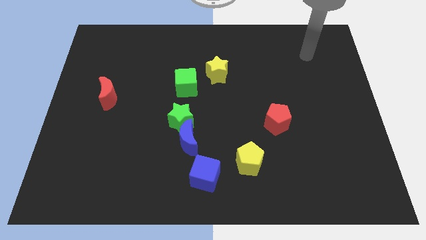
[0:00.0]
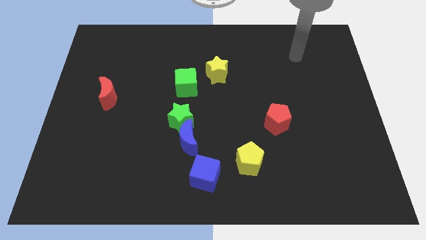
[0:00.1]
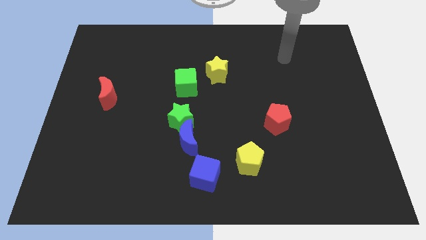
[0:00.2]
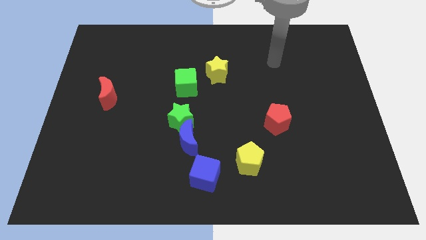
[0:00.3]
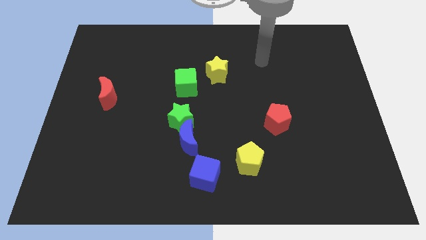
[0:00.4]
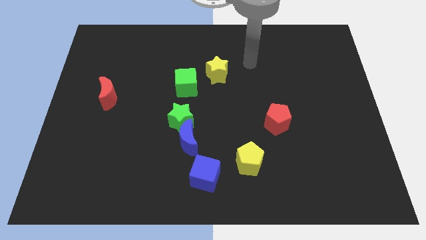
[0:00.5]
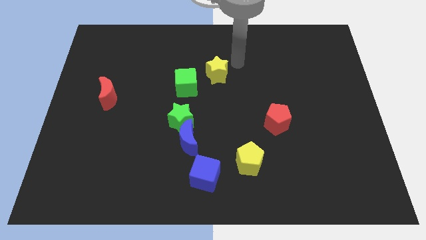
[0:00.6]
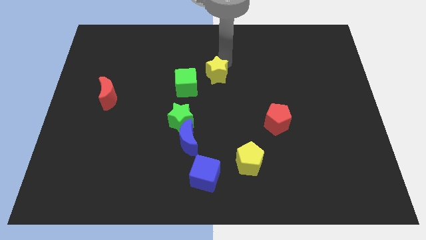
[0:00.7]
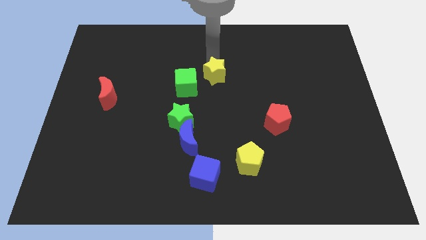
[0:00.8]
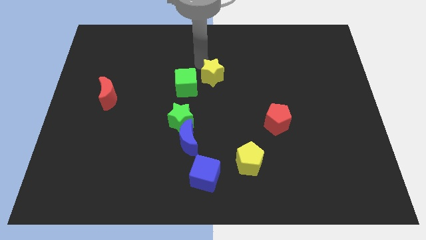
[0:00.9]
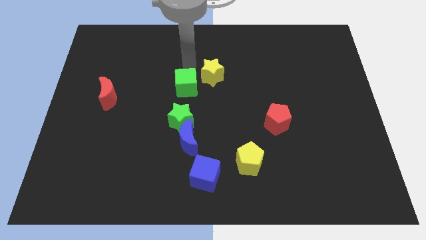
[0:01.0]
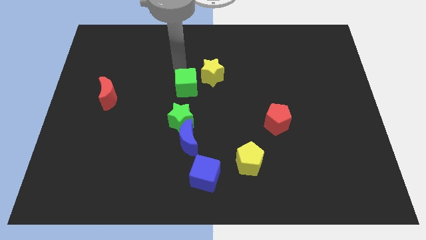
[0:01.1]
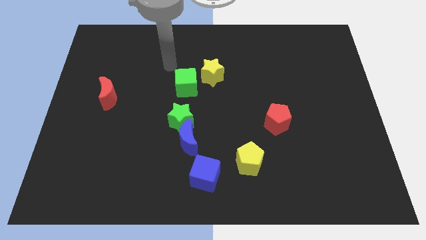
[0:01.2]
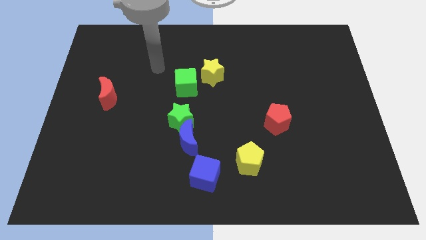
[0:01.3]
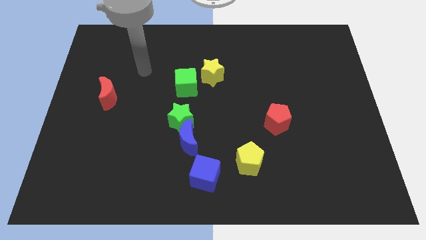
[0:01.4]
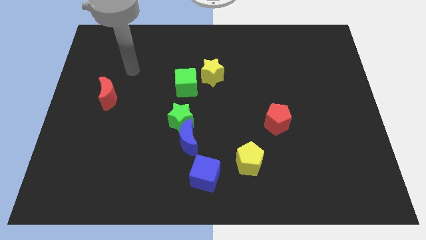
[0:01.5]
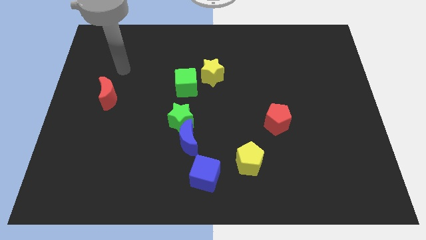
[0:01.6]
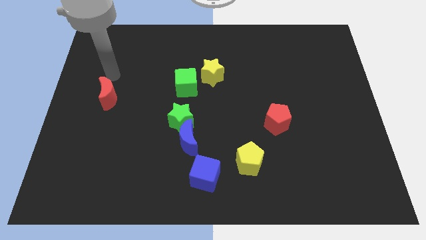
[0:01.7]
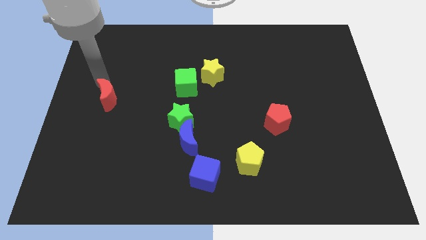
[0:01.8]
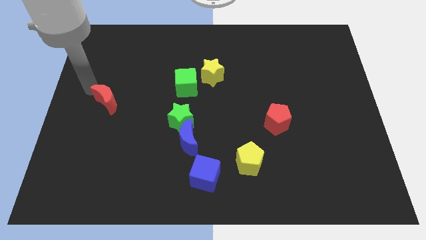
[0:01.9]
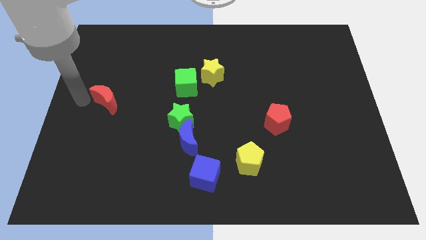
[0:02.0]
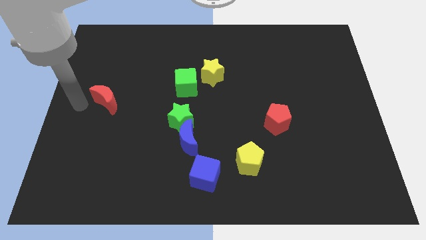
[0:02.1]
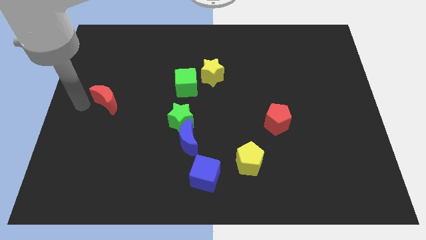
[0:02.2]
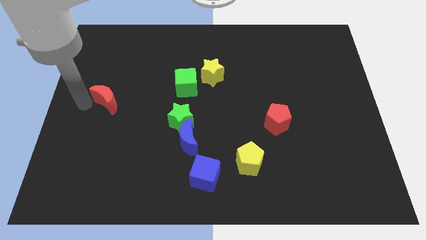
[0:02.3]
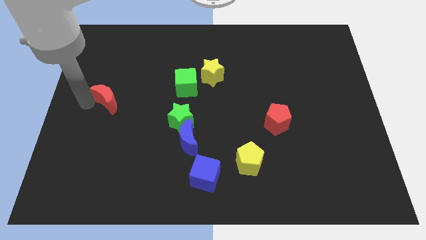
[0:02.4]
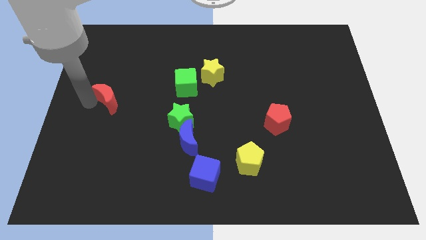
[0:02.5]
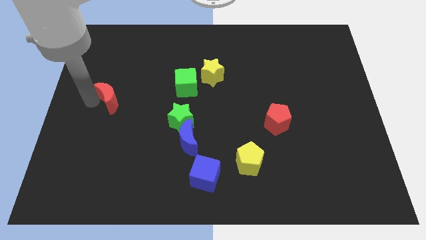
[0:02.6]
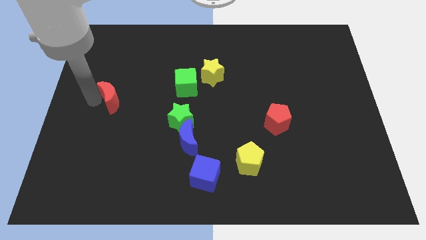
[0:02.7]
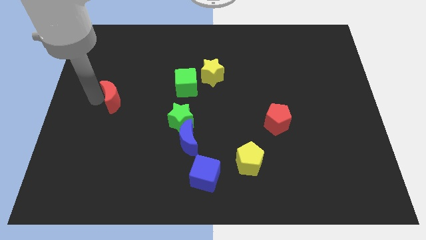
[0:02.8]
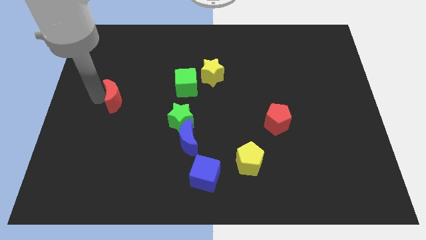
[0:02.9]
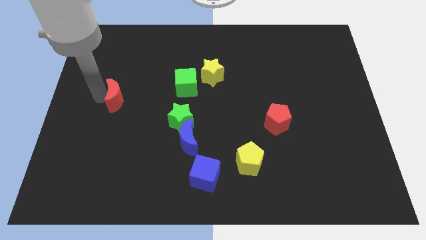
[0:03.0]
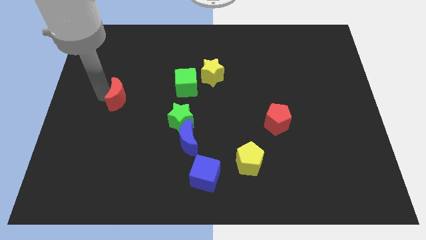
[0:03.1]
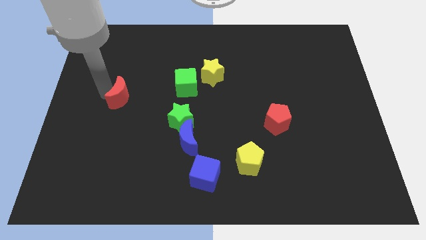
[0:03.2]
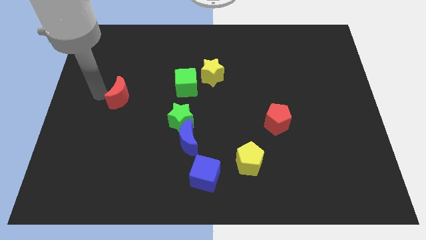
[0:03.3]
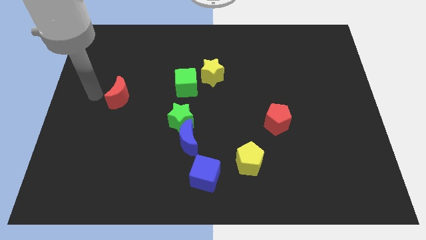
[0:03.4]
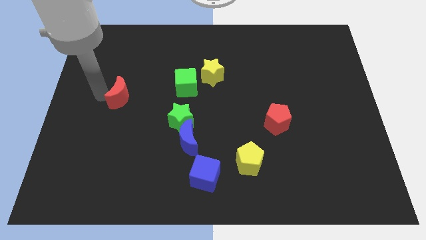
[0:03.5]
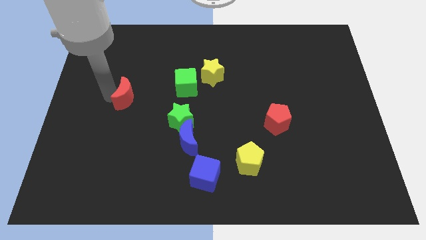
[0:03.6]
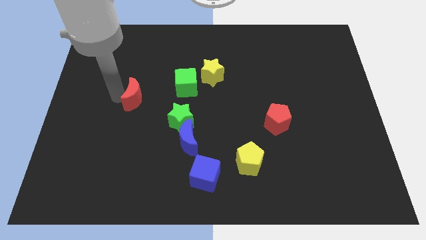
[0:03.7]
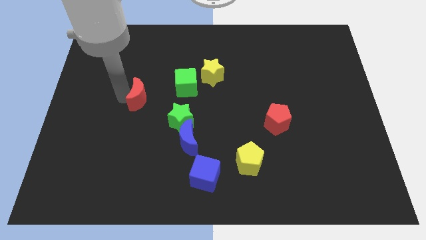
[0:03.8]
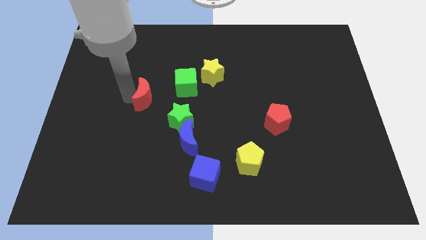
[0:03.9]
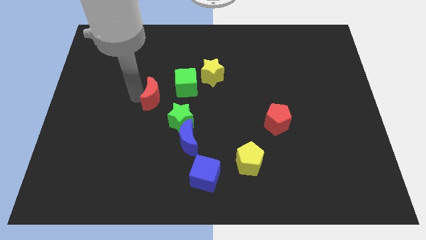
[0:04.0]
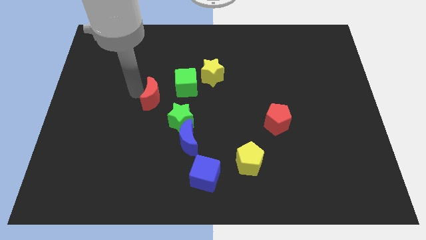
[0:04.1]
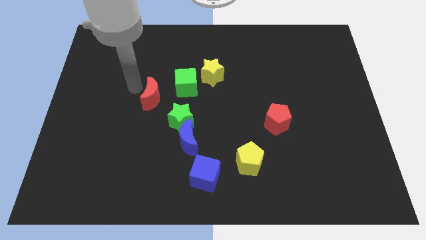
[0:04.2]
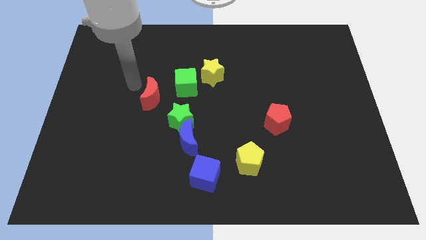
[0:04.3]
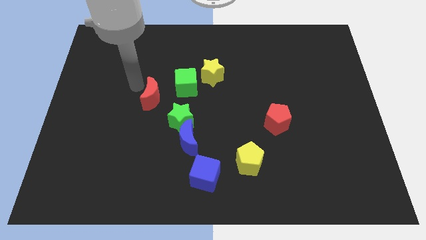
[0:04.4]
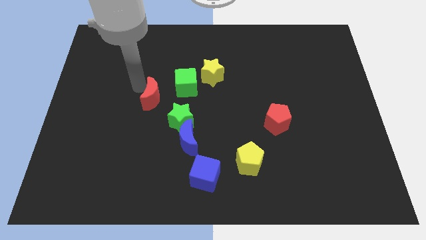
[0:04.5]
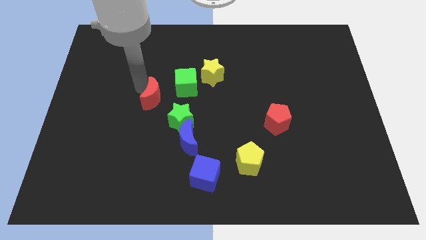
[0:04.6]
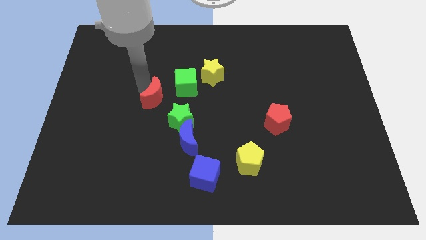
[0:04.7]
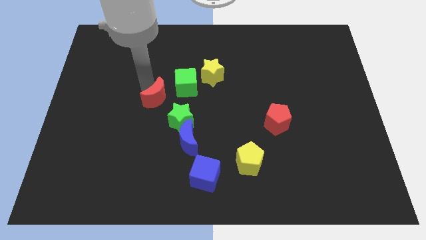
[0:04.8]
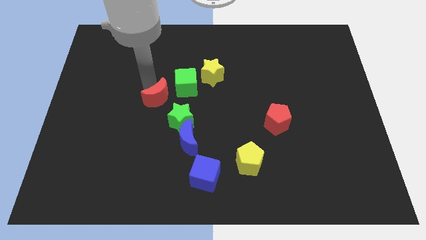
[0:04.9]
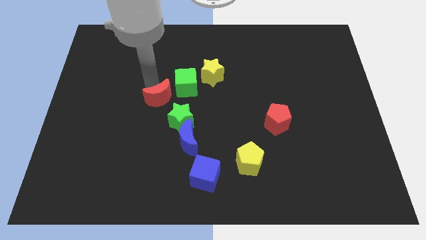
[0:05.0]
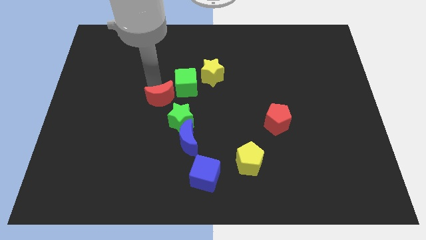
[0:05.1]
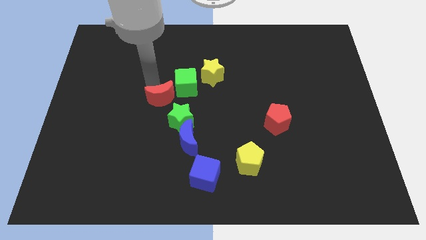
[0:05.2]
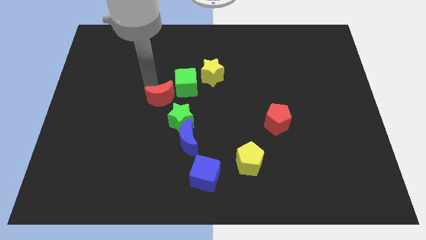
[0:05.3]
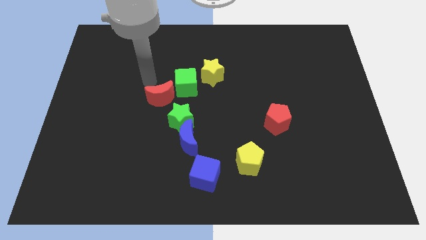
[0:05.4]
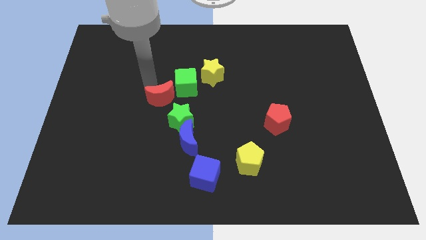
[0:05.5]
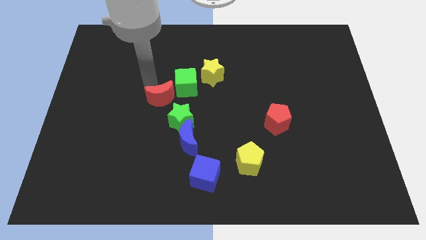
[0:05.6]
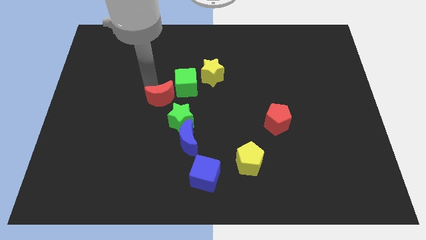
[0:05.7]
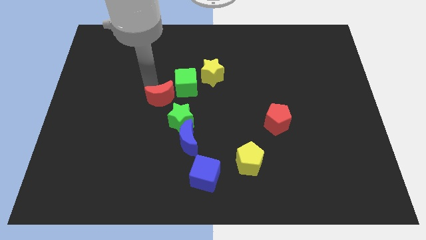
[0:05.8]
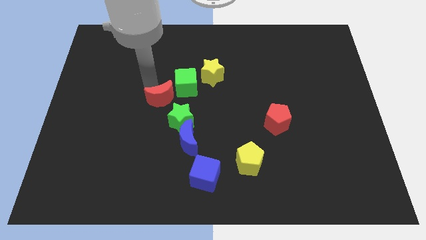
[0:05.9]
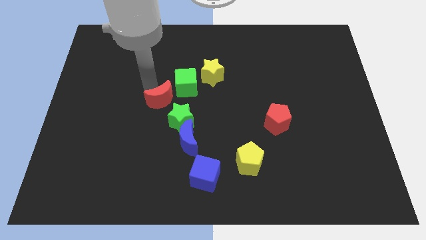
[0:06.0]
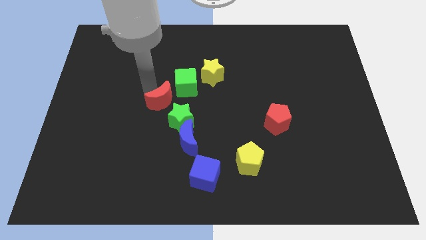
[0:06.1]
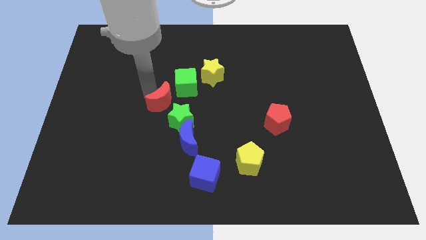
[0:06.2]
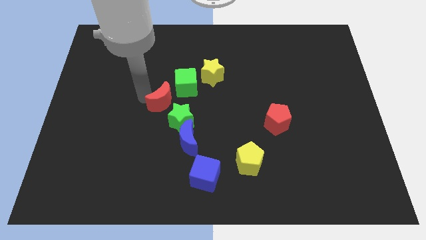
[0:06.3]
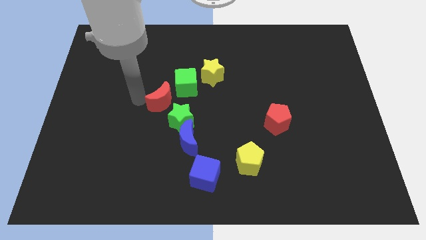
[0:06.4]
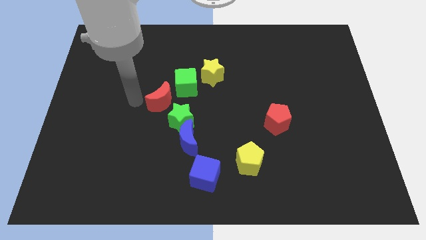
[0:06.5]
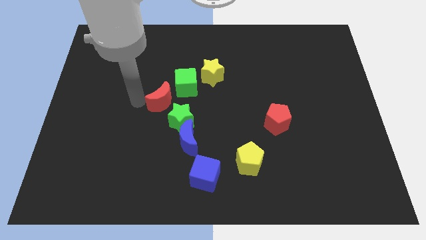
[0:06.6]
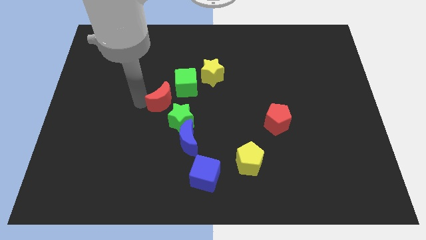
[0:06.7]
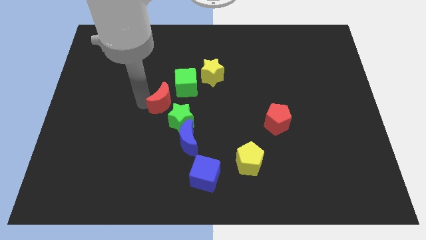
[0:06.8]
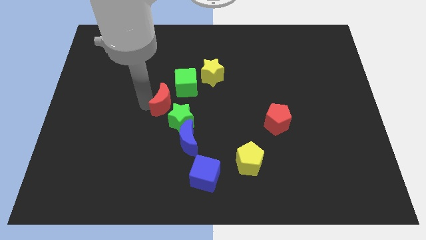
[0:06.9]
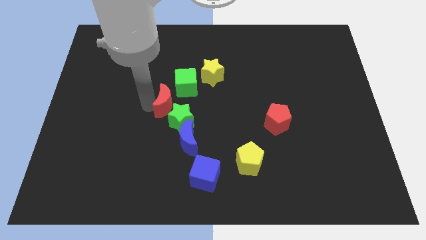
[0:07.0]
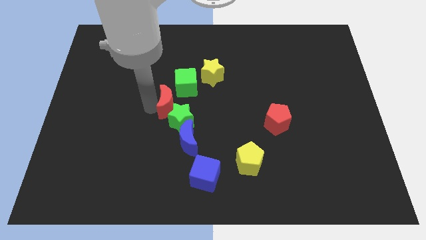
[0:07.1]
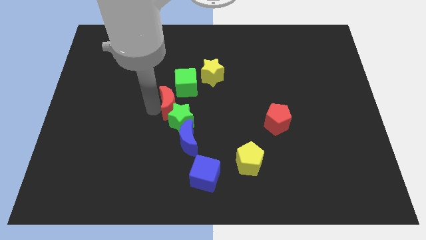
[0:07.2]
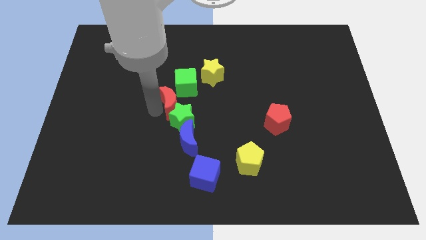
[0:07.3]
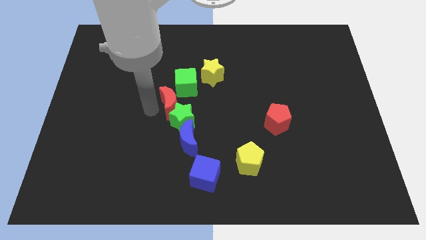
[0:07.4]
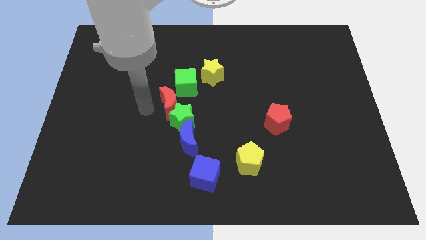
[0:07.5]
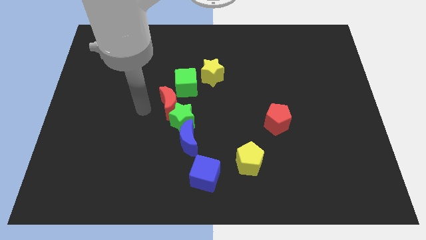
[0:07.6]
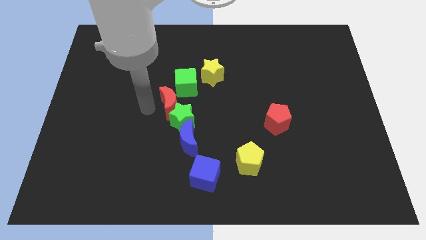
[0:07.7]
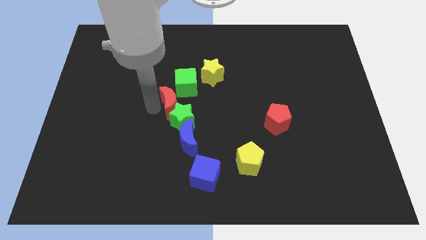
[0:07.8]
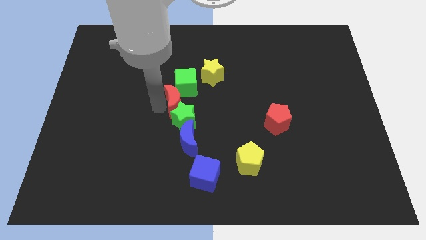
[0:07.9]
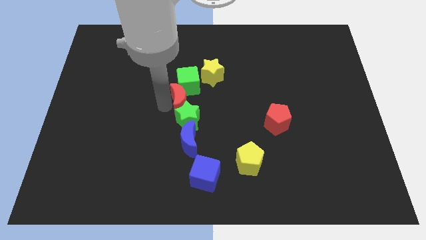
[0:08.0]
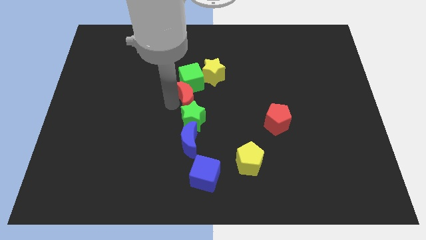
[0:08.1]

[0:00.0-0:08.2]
put the red moon diagonally down and to the right of the green cube
